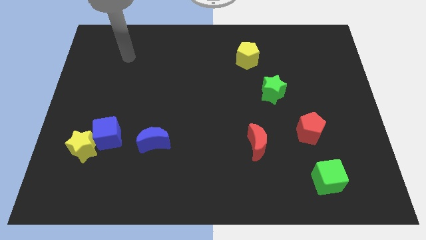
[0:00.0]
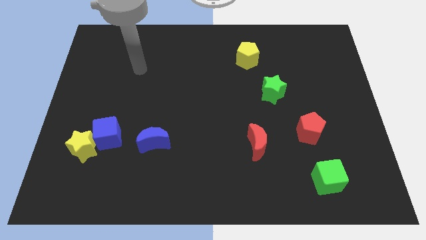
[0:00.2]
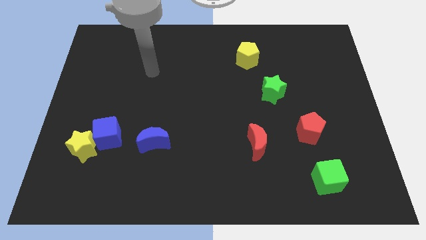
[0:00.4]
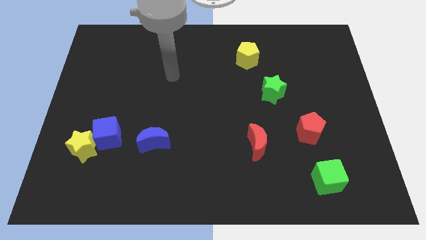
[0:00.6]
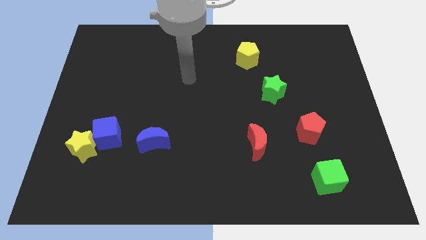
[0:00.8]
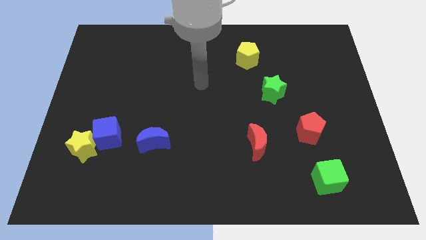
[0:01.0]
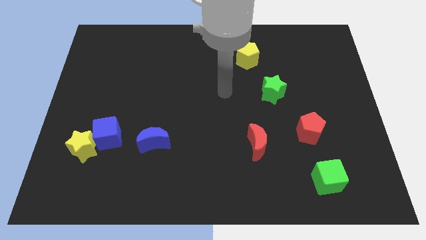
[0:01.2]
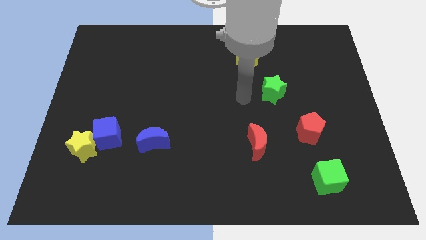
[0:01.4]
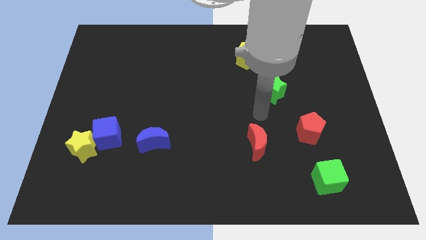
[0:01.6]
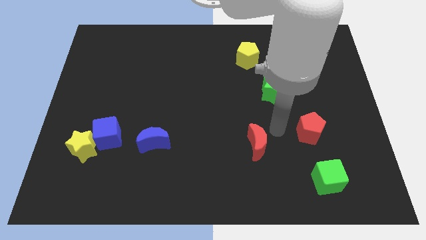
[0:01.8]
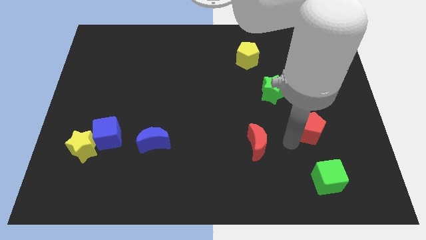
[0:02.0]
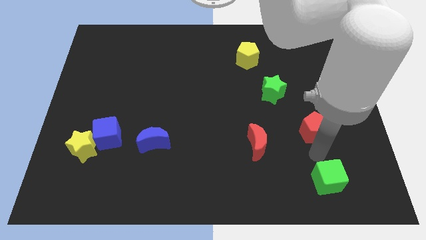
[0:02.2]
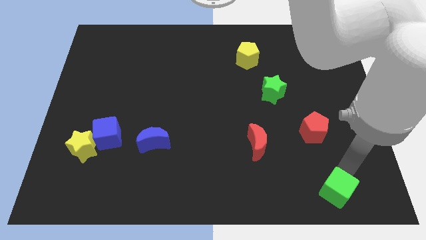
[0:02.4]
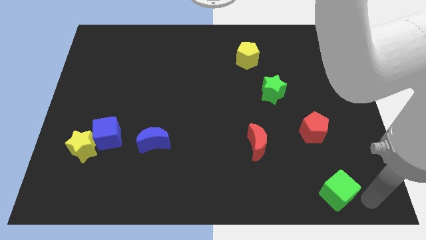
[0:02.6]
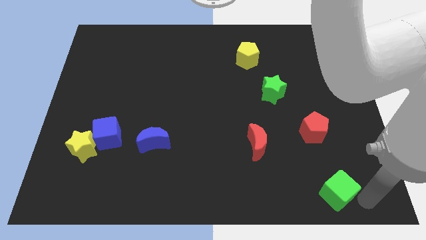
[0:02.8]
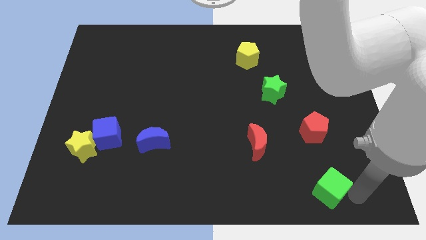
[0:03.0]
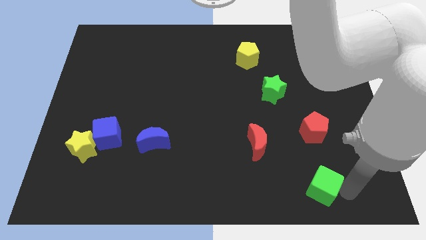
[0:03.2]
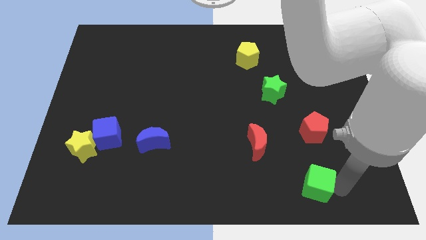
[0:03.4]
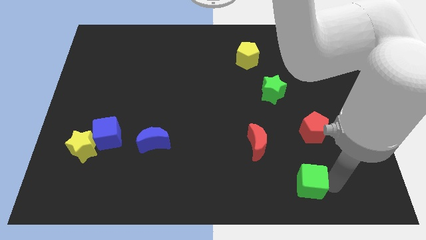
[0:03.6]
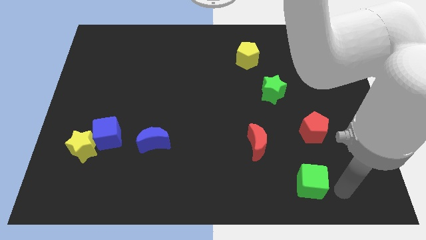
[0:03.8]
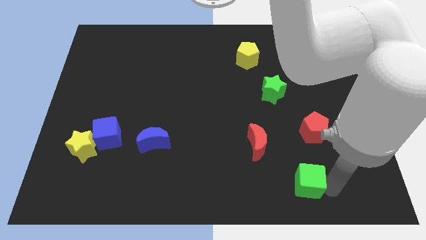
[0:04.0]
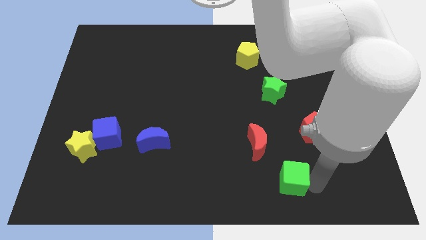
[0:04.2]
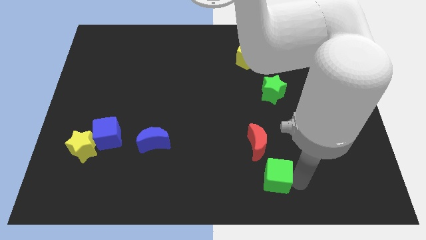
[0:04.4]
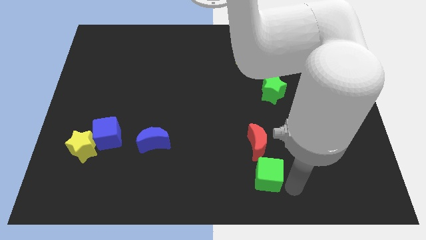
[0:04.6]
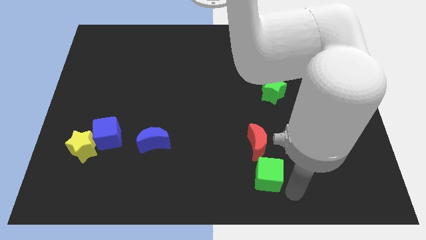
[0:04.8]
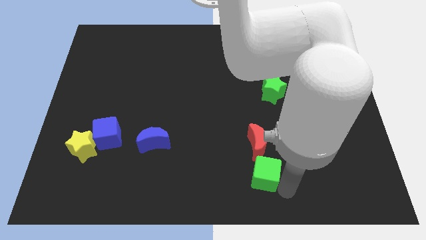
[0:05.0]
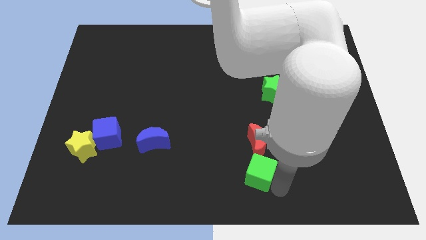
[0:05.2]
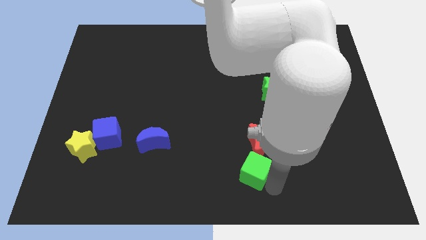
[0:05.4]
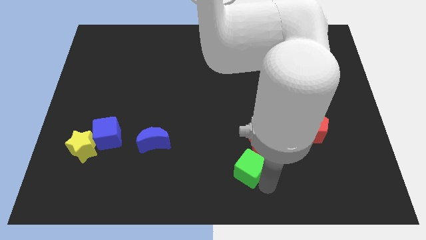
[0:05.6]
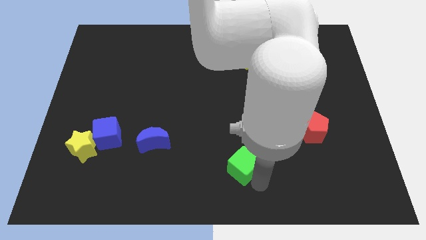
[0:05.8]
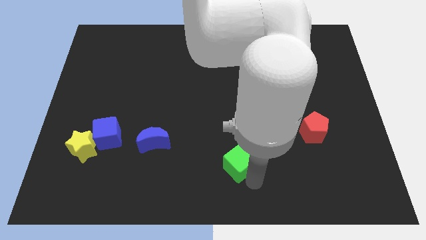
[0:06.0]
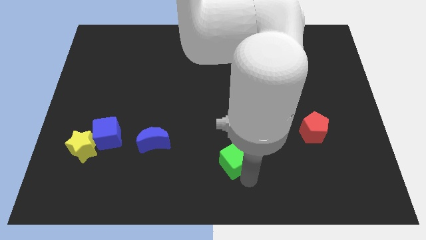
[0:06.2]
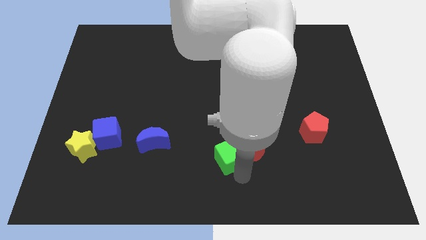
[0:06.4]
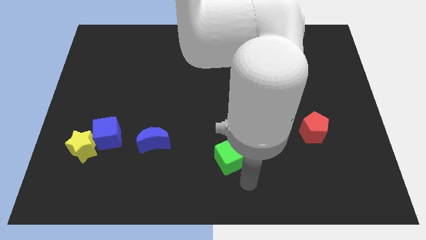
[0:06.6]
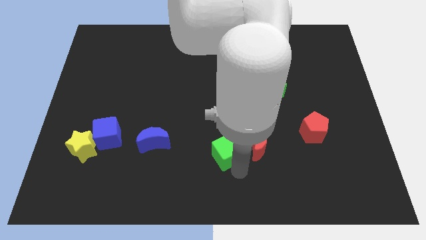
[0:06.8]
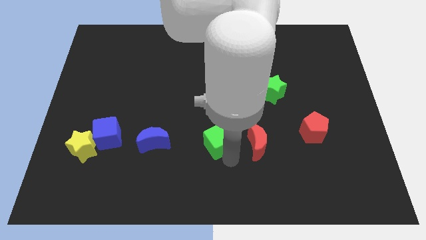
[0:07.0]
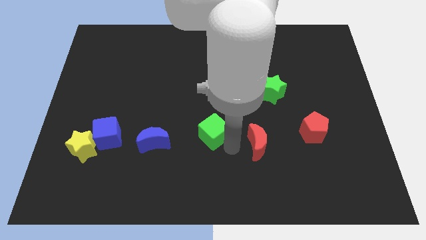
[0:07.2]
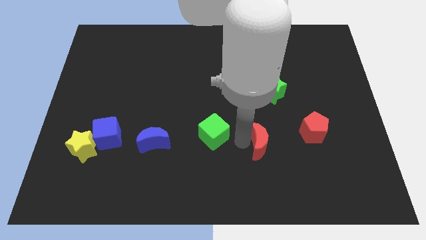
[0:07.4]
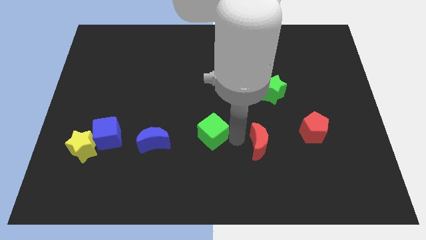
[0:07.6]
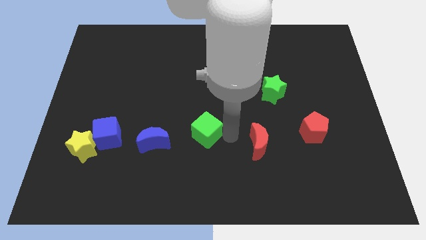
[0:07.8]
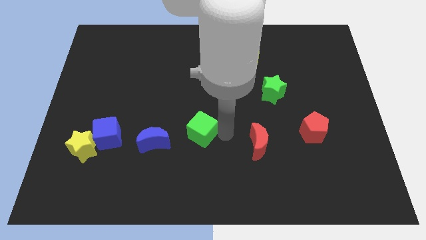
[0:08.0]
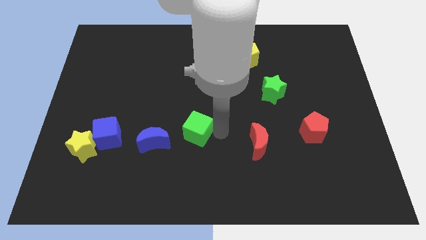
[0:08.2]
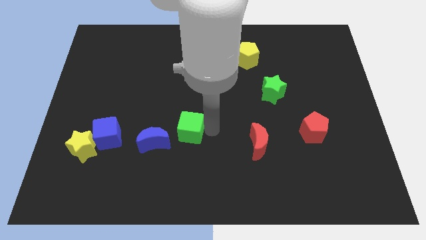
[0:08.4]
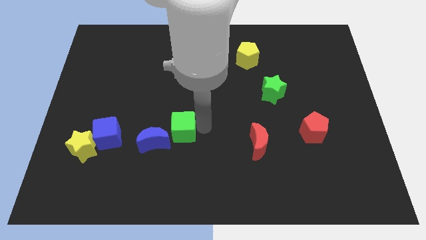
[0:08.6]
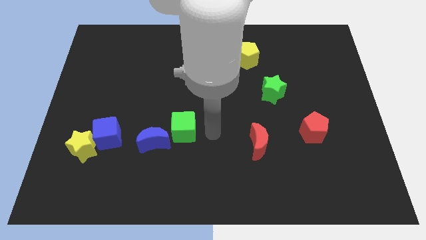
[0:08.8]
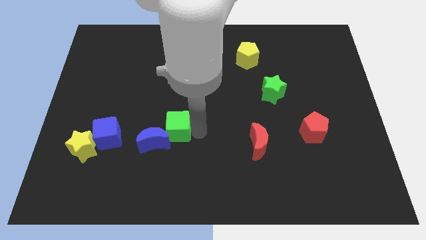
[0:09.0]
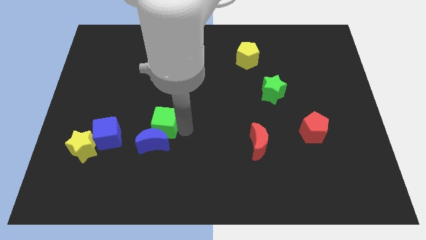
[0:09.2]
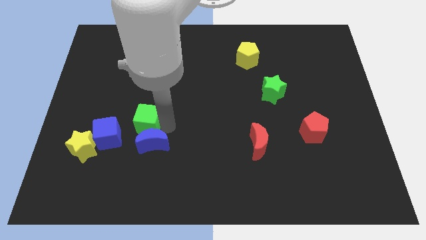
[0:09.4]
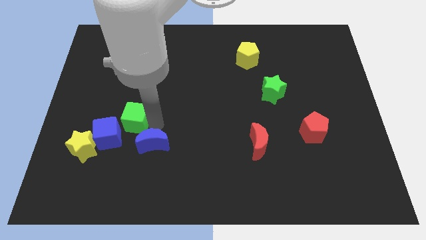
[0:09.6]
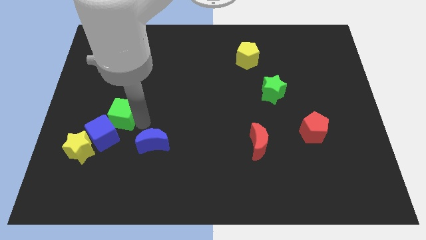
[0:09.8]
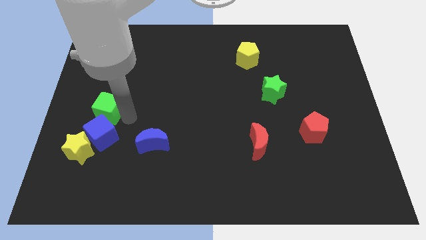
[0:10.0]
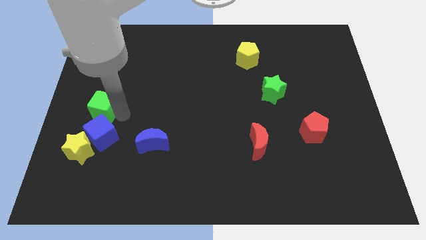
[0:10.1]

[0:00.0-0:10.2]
push the green cube to the left side of the board

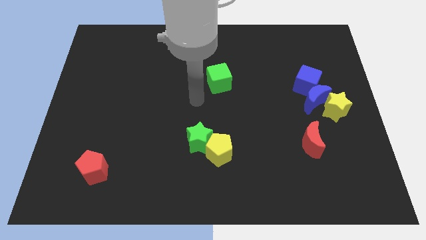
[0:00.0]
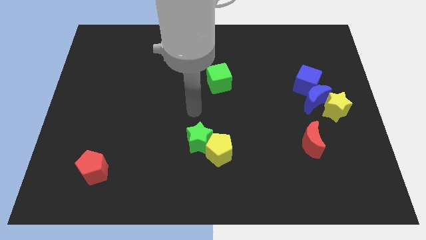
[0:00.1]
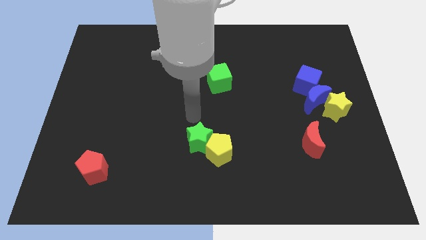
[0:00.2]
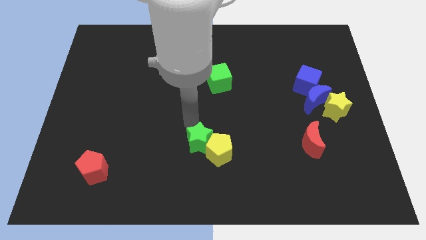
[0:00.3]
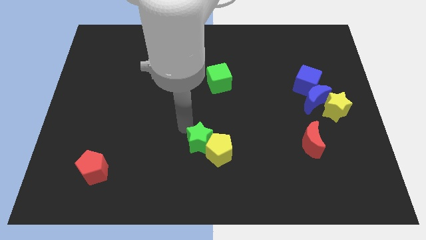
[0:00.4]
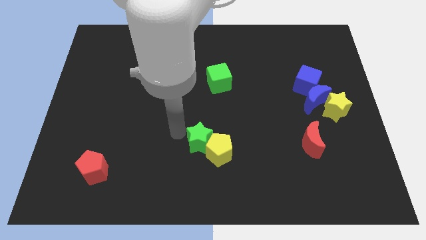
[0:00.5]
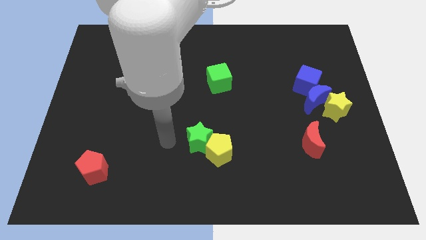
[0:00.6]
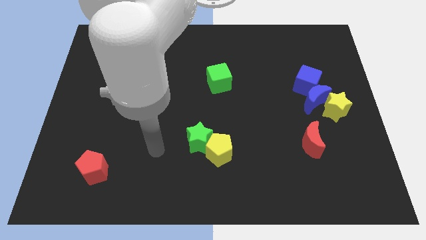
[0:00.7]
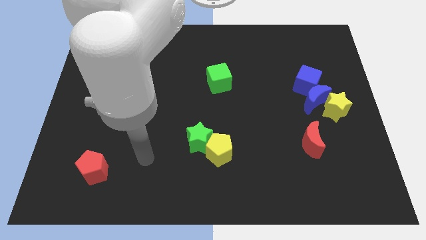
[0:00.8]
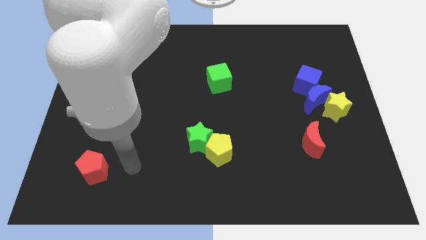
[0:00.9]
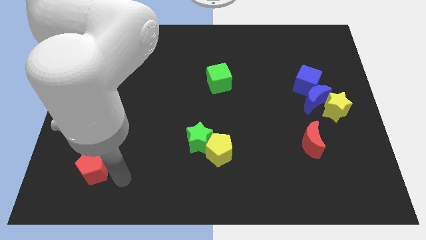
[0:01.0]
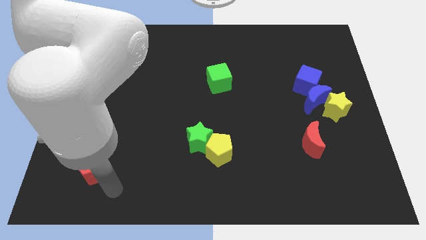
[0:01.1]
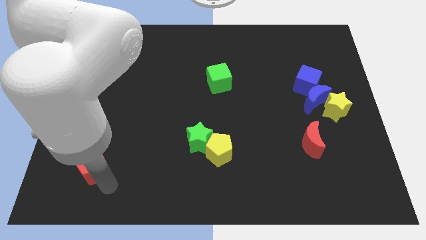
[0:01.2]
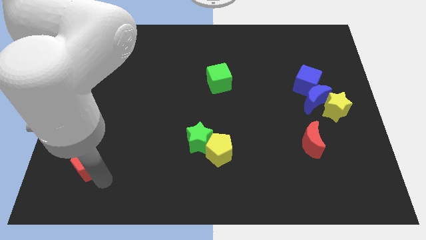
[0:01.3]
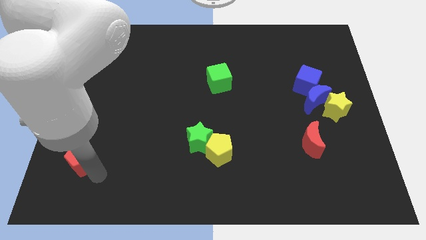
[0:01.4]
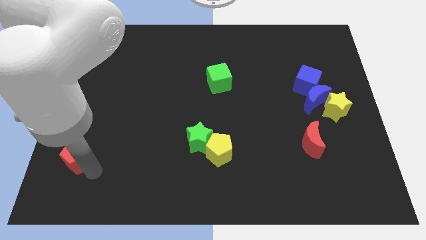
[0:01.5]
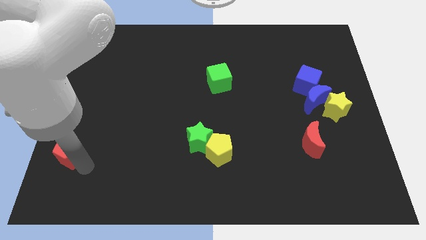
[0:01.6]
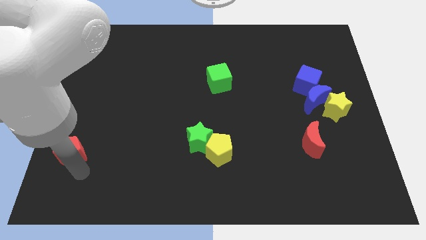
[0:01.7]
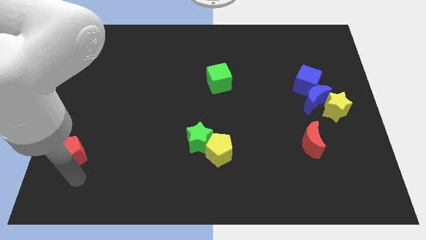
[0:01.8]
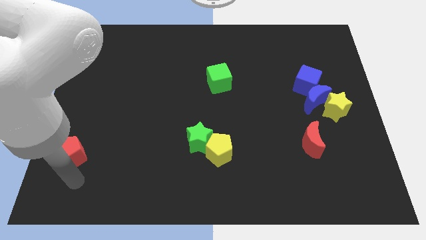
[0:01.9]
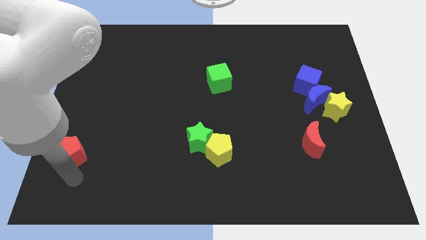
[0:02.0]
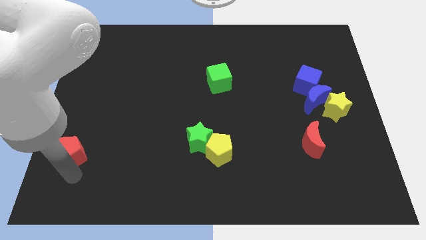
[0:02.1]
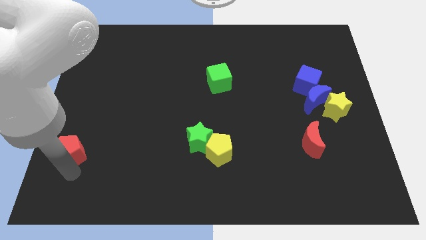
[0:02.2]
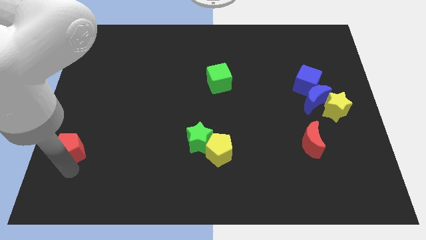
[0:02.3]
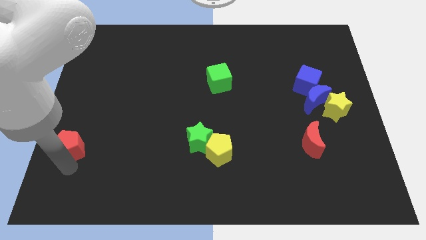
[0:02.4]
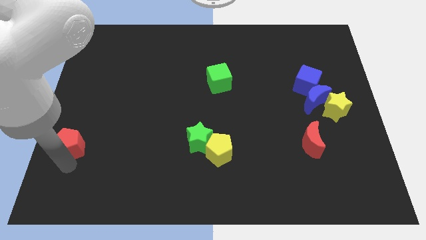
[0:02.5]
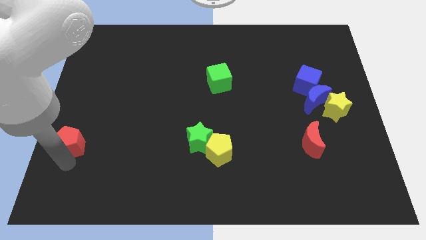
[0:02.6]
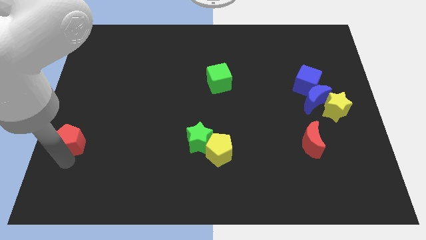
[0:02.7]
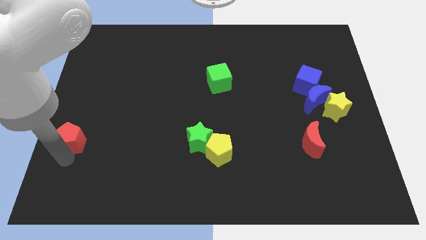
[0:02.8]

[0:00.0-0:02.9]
move the red pentagon to the left side of the board
